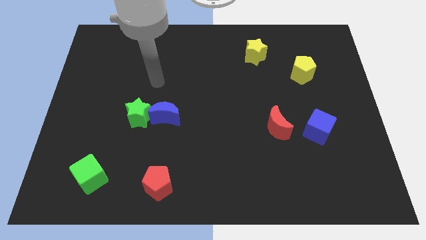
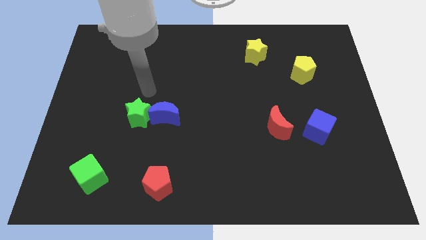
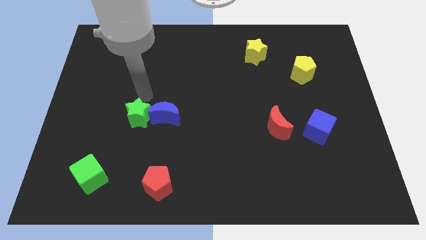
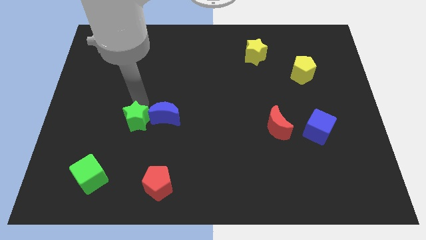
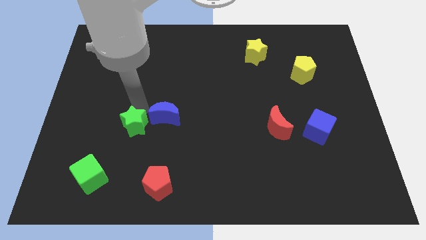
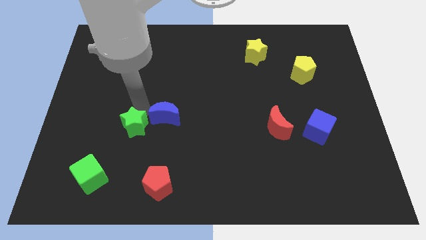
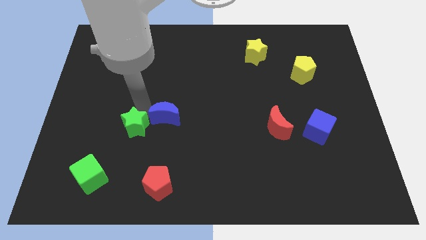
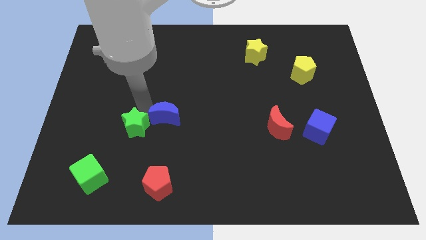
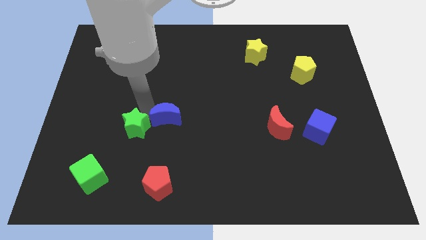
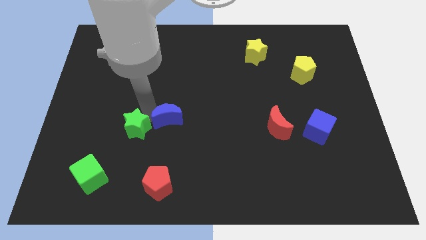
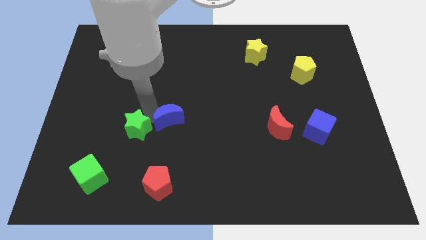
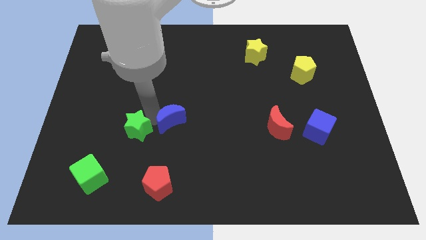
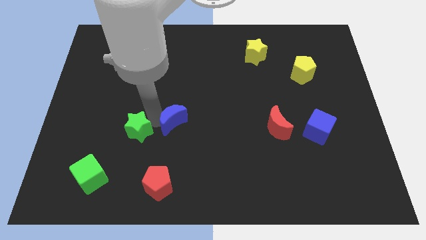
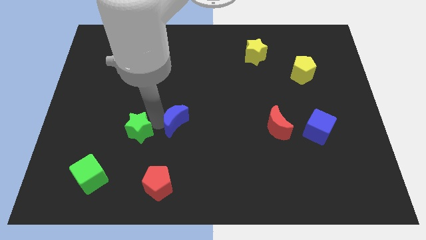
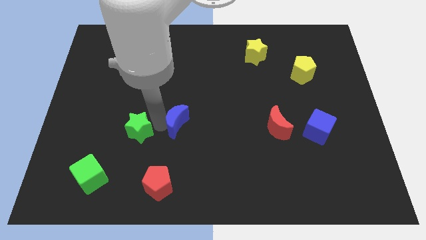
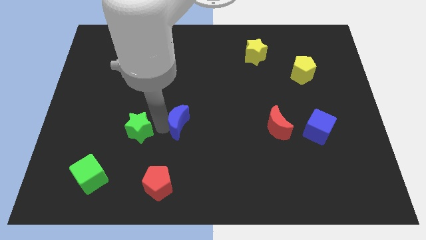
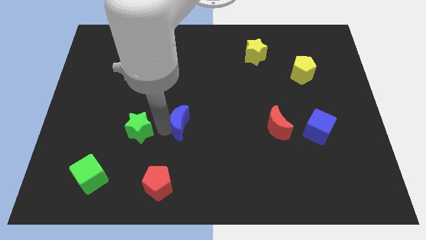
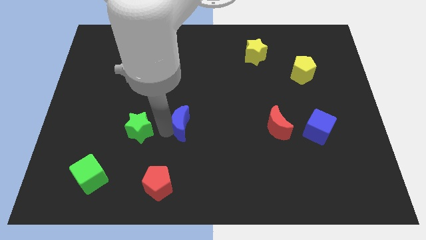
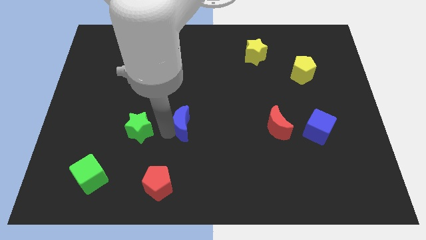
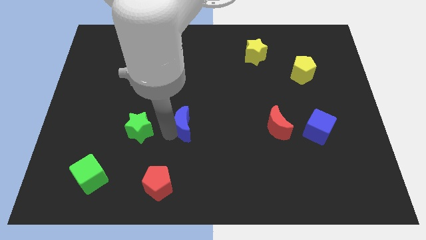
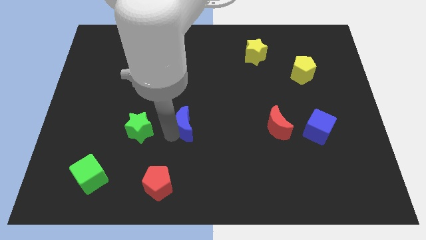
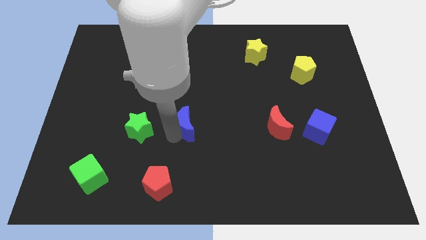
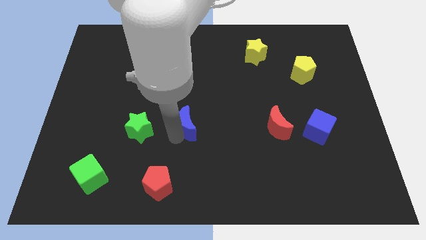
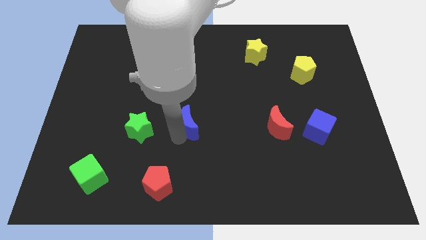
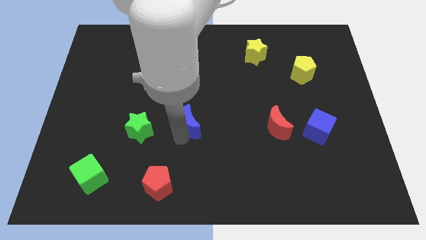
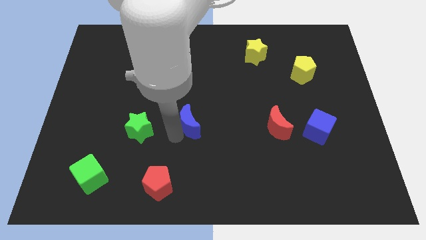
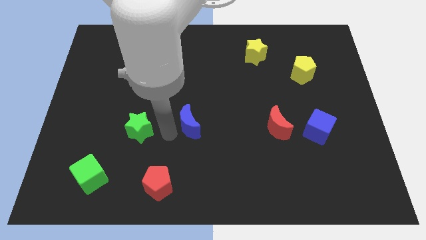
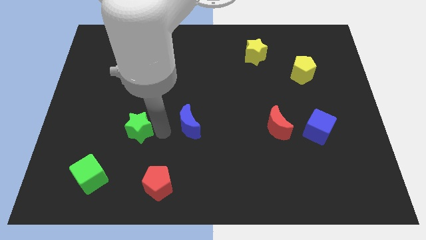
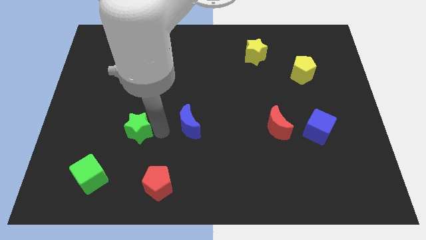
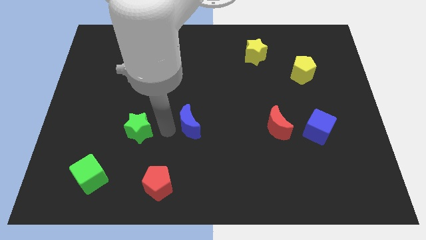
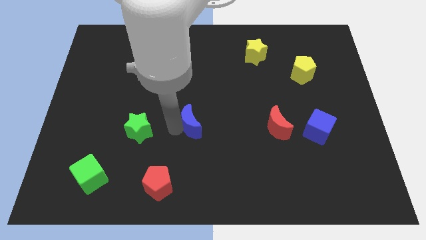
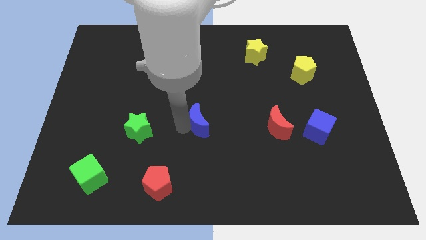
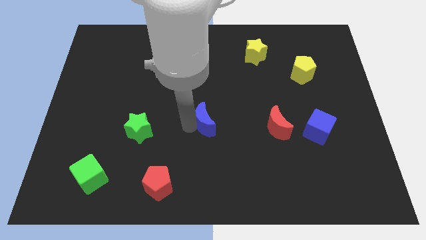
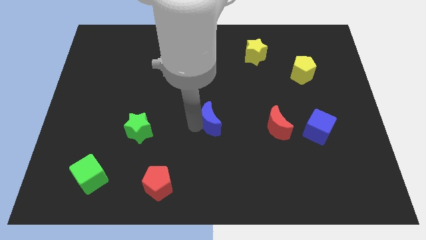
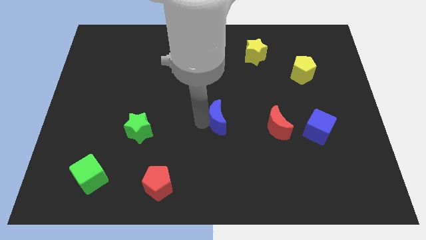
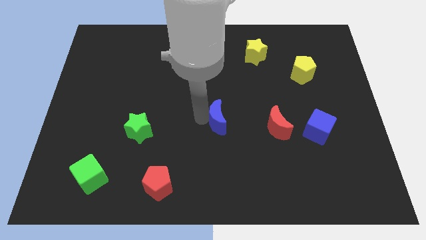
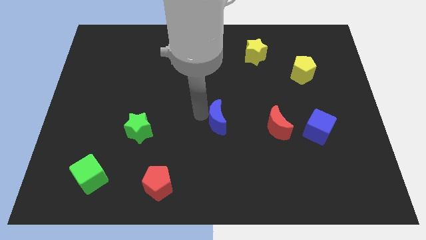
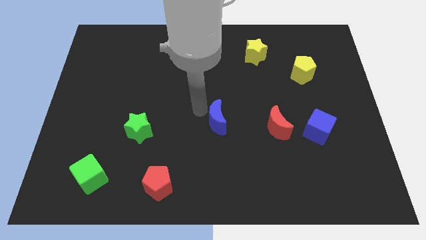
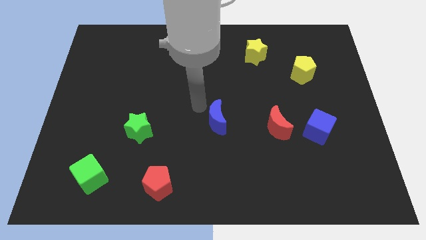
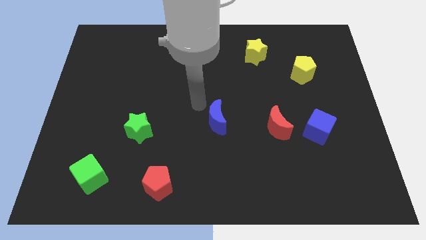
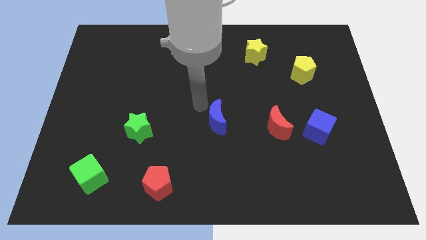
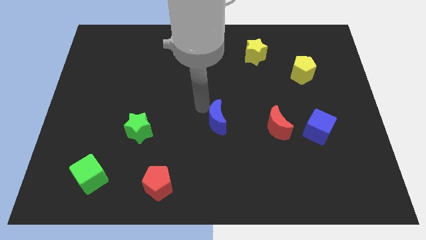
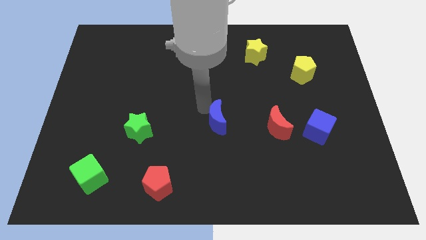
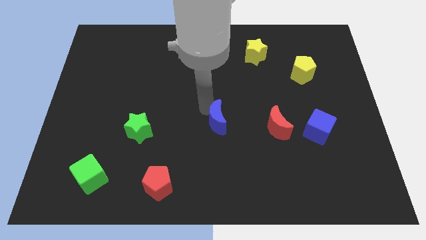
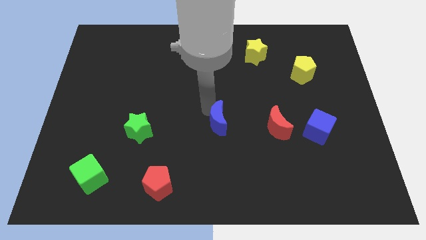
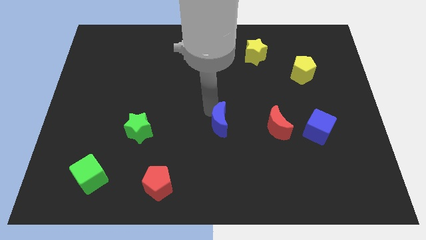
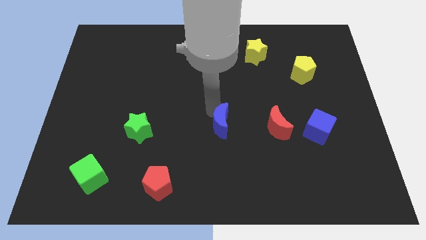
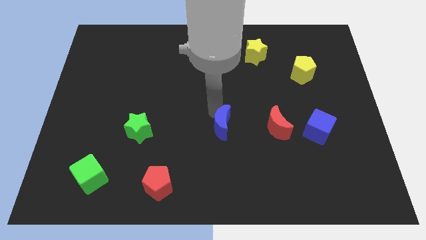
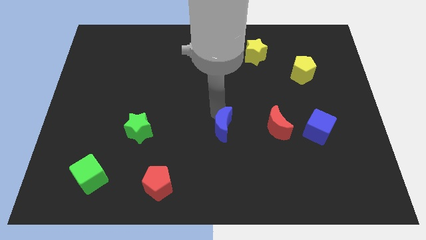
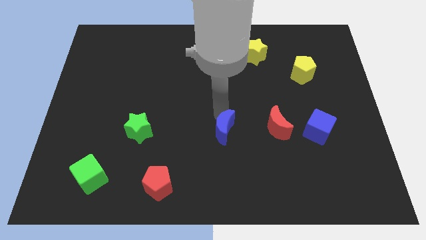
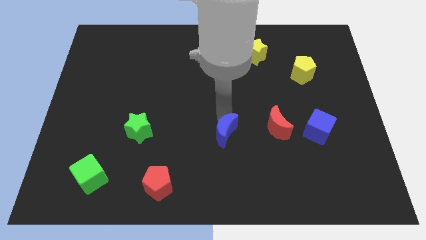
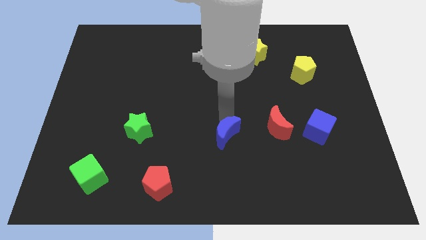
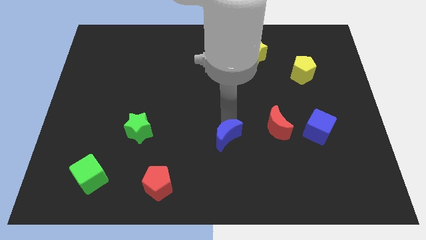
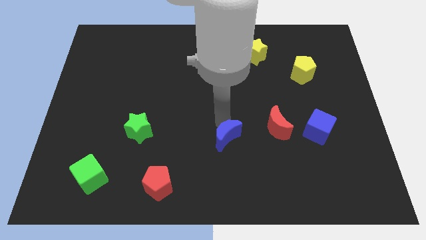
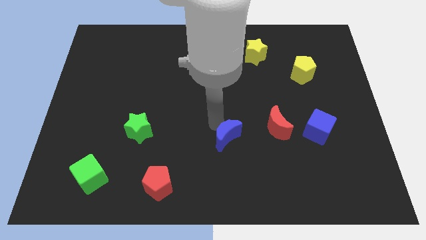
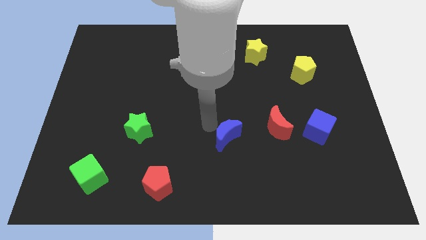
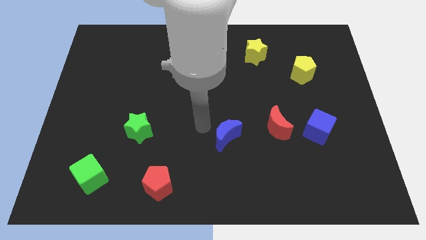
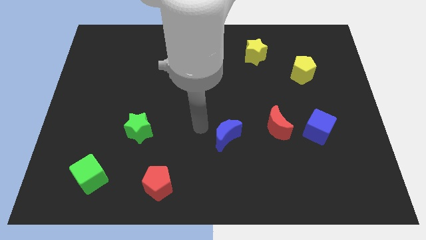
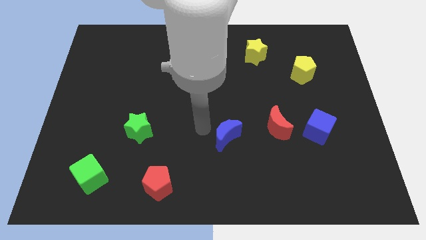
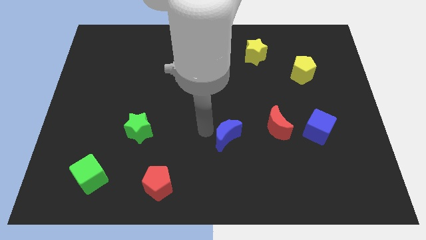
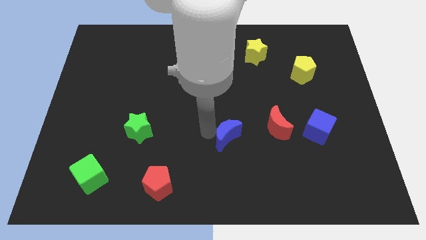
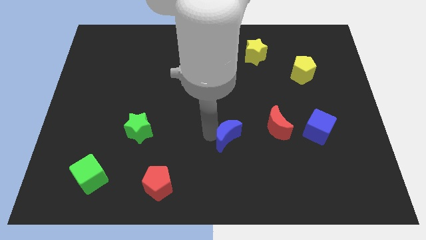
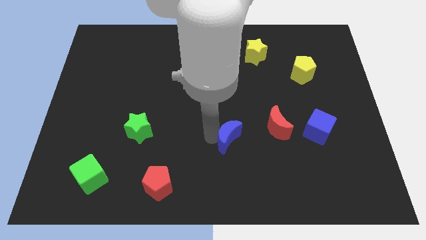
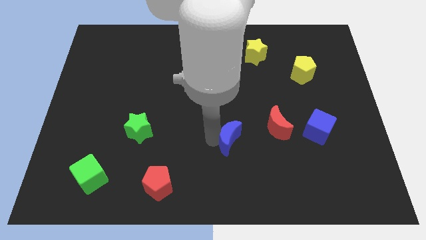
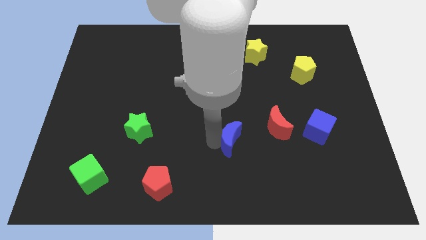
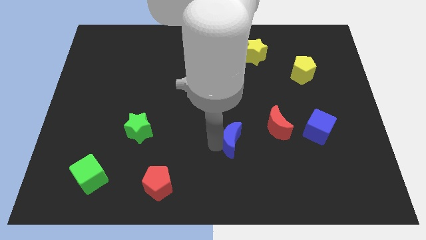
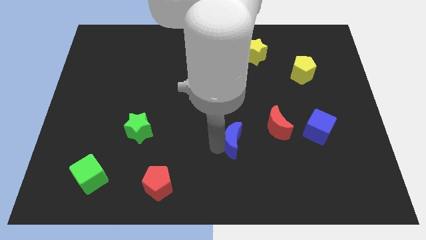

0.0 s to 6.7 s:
put the blue moon to the bottom left side of the red moon

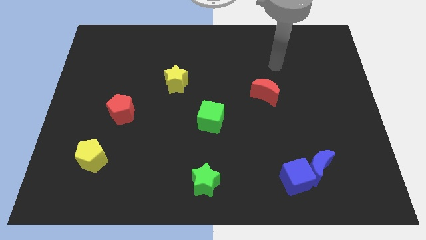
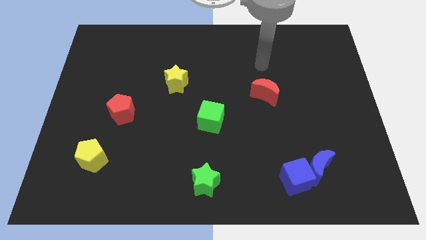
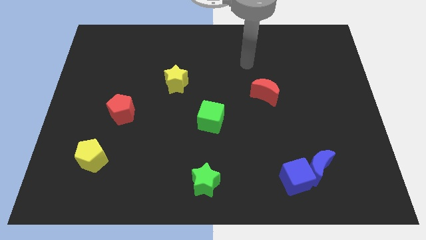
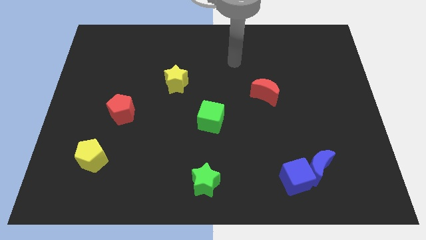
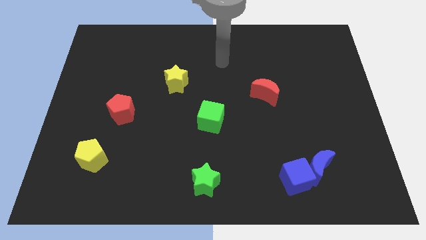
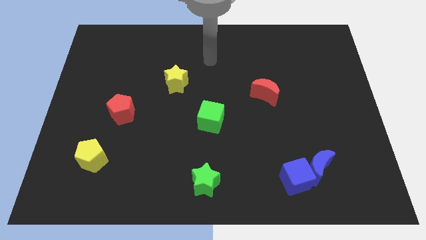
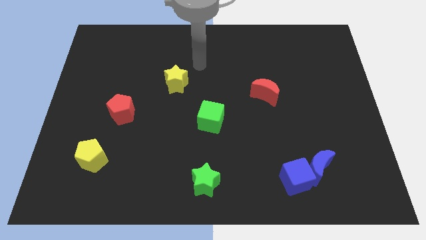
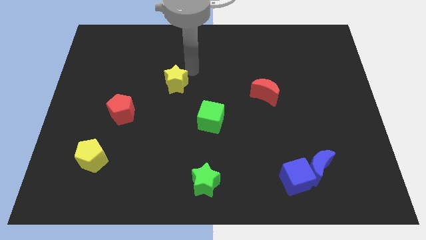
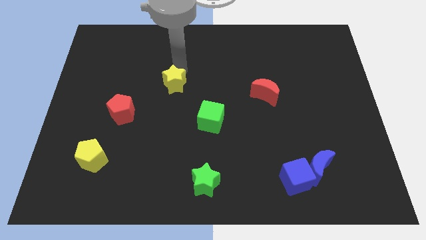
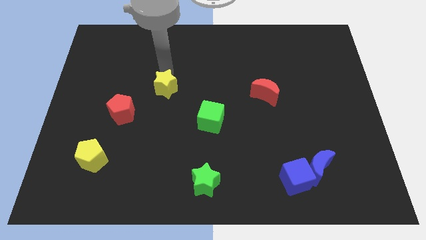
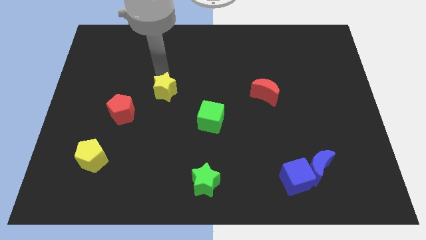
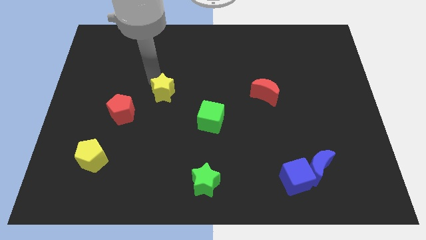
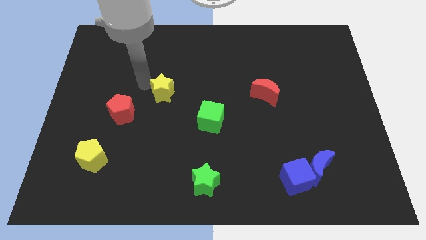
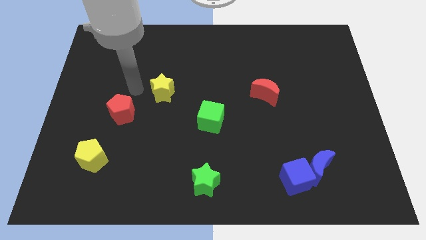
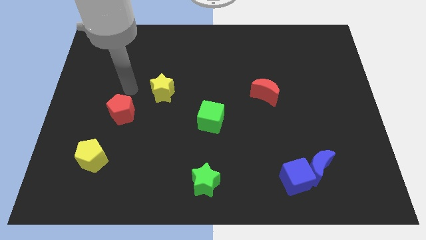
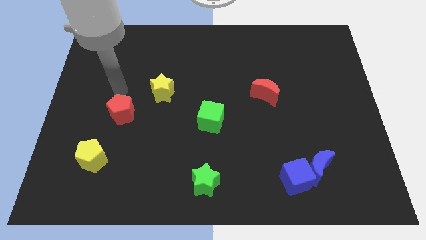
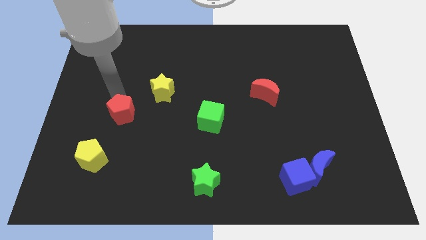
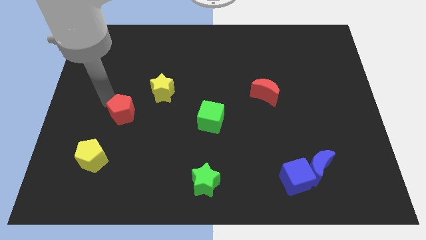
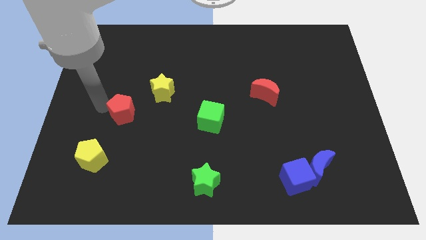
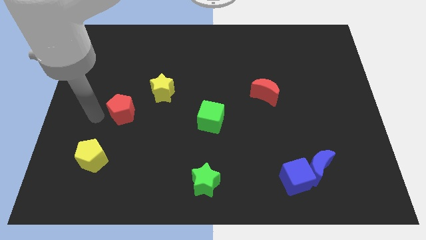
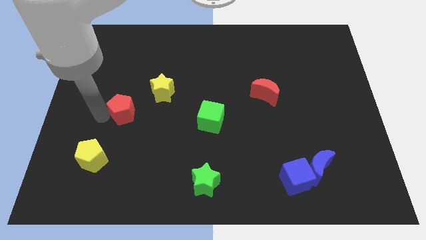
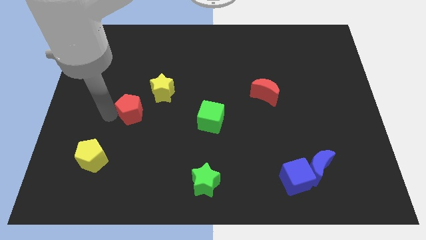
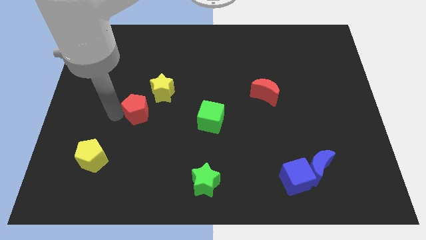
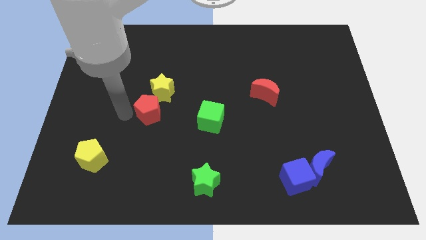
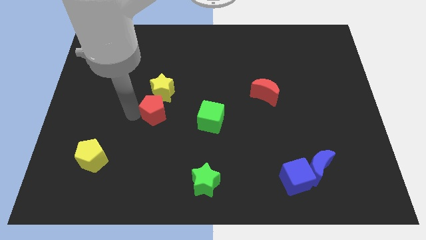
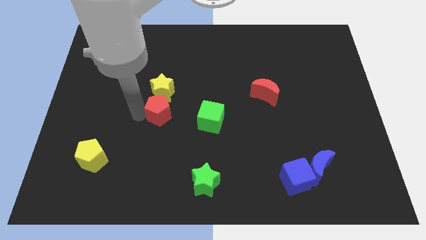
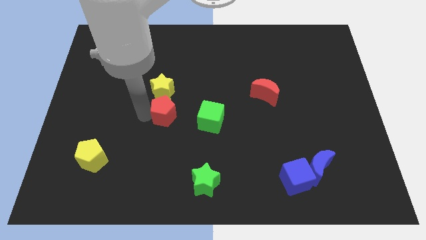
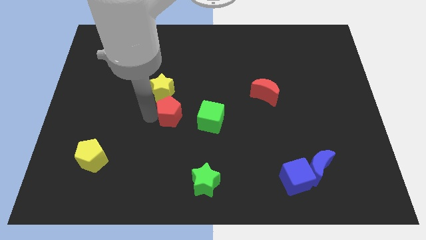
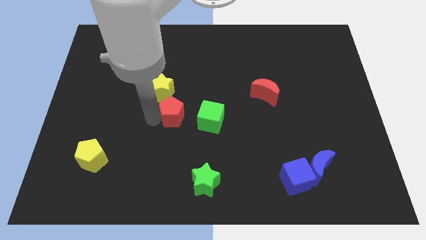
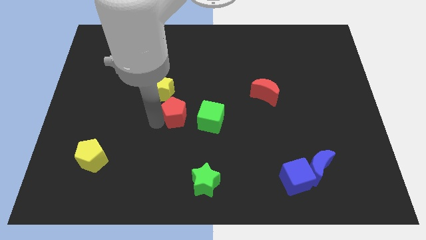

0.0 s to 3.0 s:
move the red pentagon to the top left of the green cube
